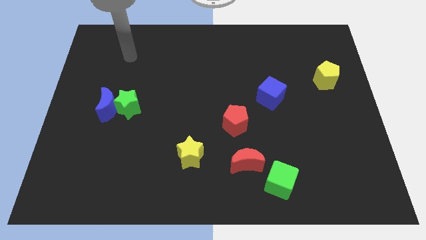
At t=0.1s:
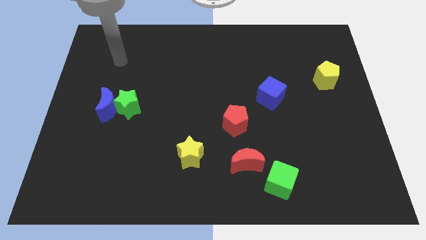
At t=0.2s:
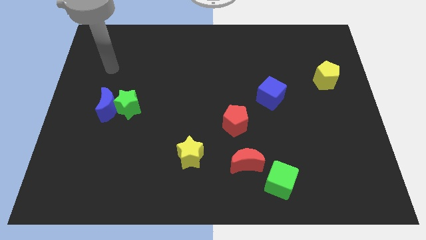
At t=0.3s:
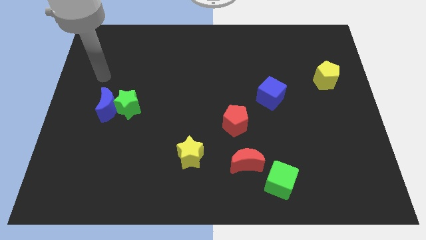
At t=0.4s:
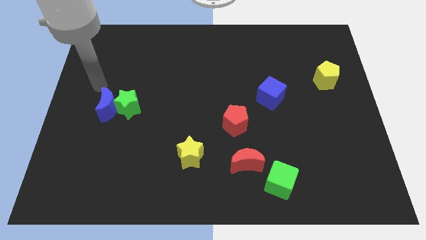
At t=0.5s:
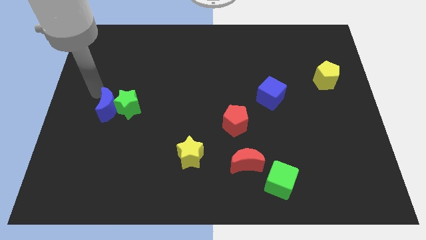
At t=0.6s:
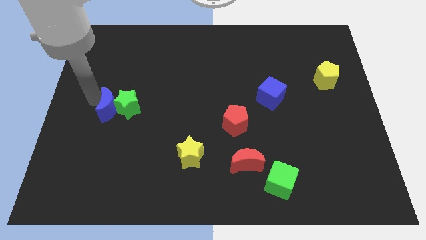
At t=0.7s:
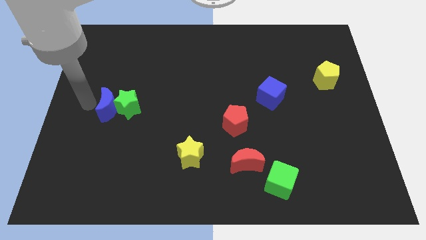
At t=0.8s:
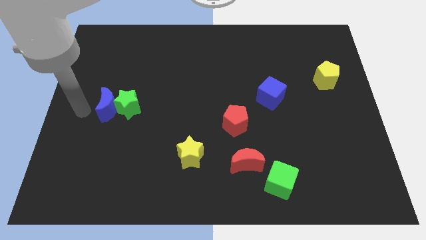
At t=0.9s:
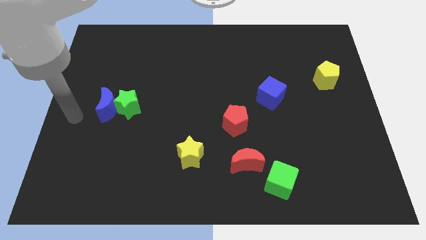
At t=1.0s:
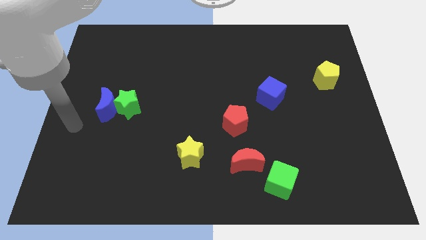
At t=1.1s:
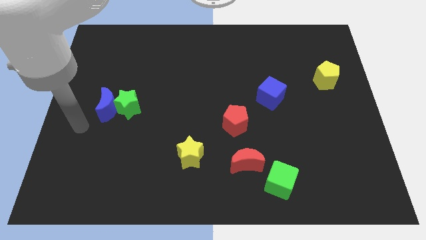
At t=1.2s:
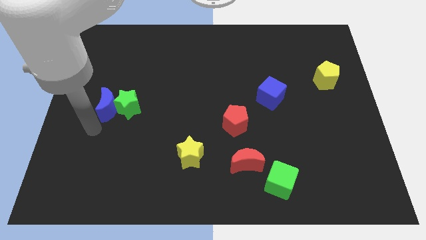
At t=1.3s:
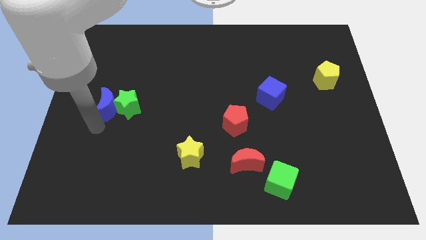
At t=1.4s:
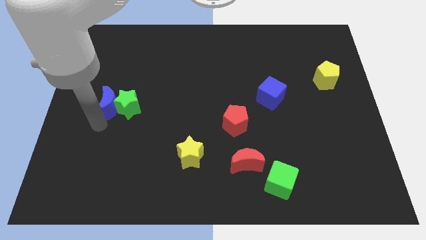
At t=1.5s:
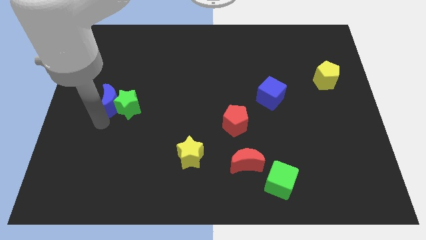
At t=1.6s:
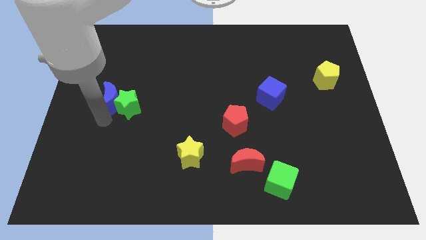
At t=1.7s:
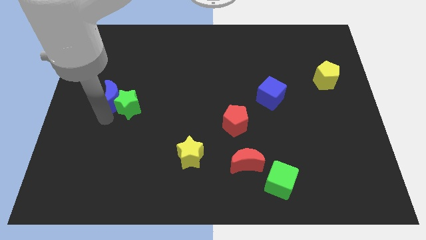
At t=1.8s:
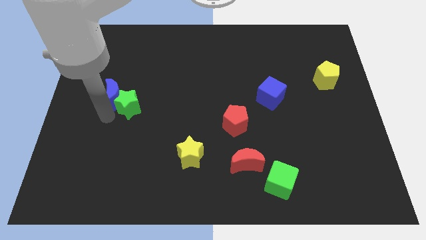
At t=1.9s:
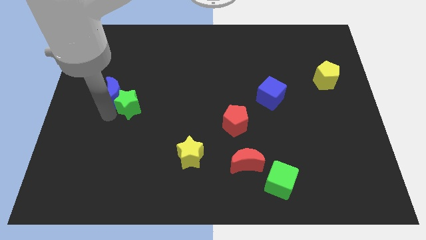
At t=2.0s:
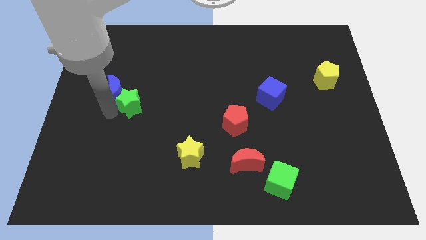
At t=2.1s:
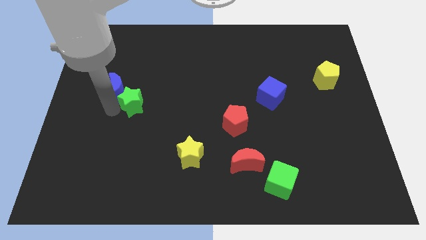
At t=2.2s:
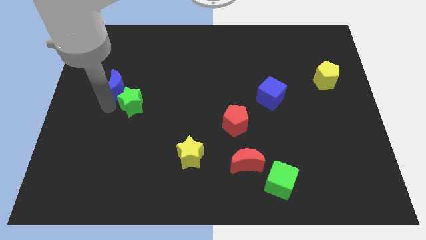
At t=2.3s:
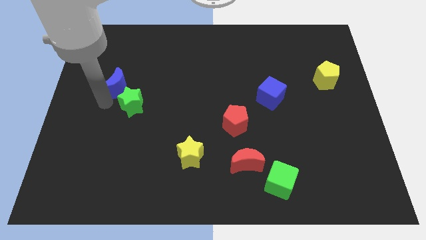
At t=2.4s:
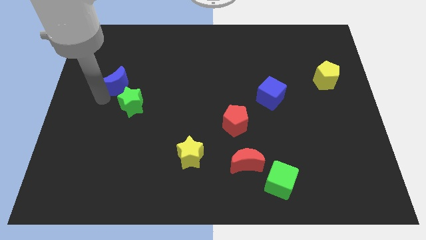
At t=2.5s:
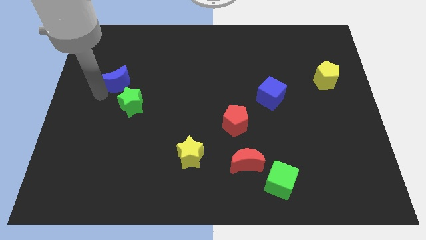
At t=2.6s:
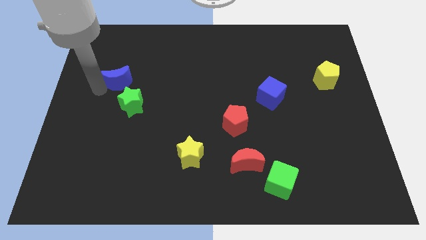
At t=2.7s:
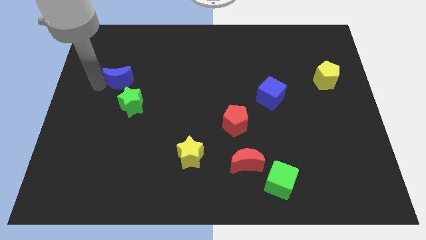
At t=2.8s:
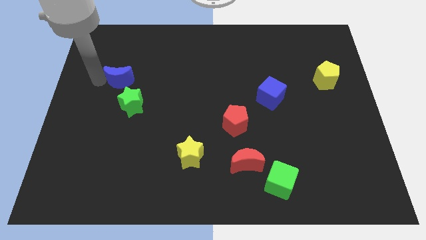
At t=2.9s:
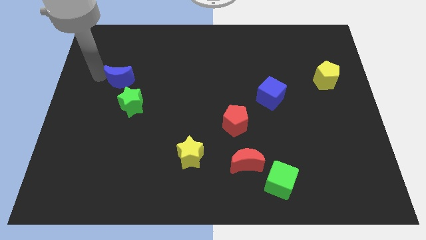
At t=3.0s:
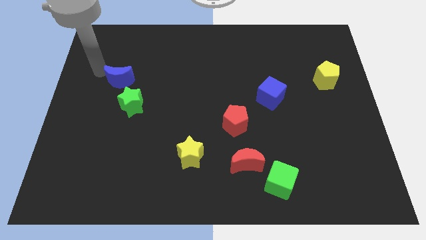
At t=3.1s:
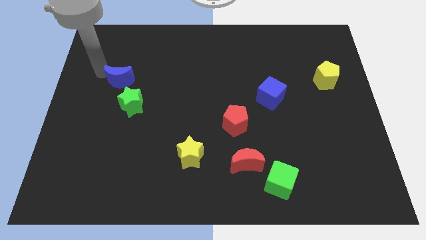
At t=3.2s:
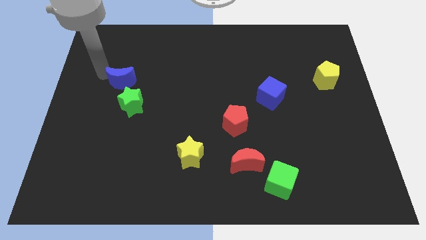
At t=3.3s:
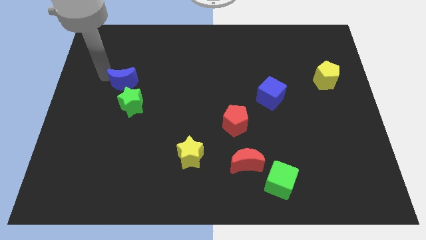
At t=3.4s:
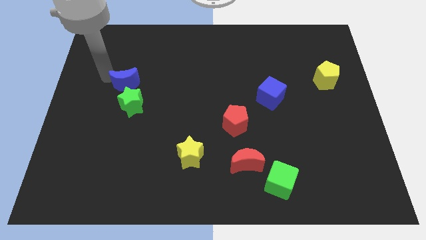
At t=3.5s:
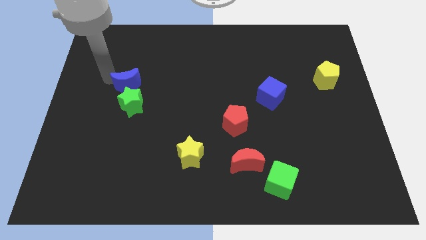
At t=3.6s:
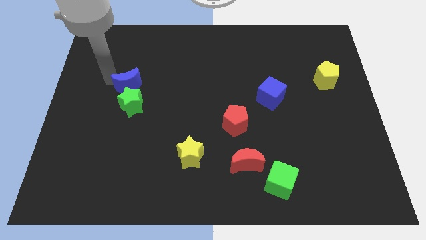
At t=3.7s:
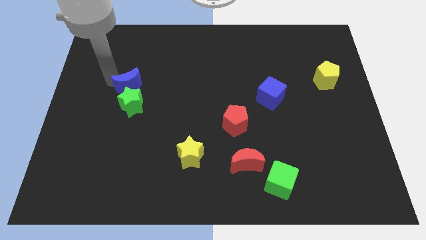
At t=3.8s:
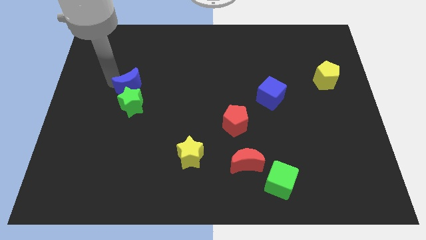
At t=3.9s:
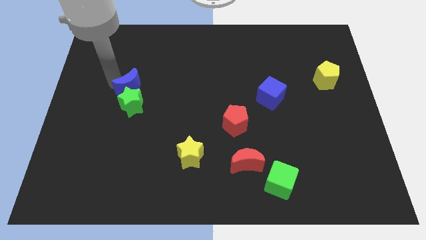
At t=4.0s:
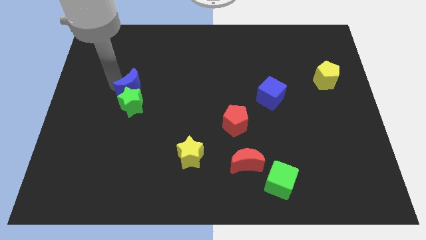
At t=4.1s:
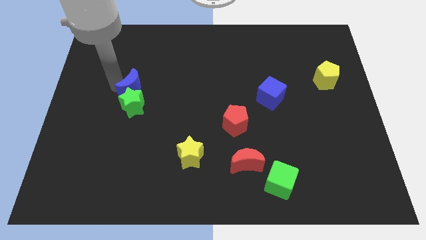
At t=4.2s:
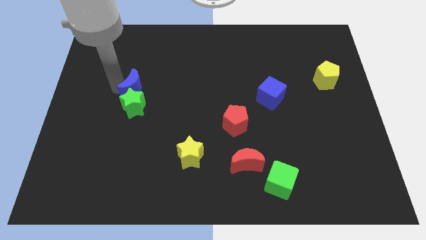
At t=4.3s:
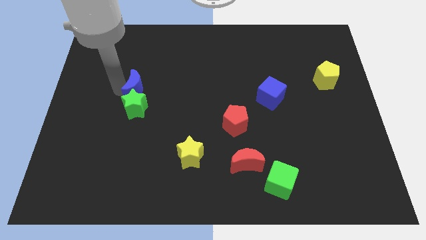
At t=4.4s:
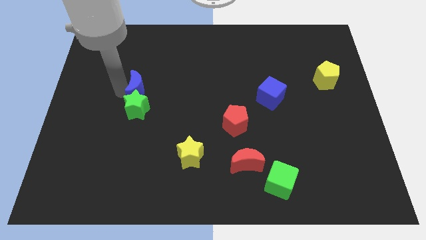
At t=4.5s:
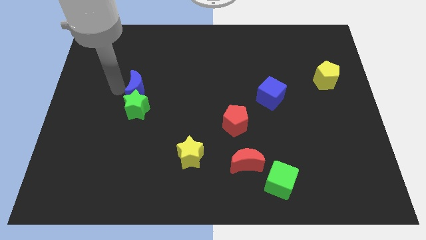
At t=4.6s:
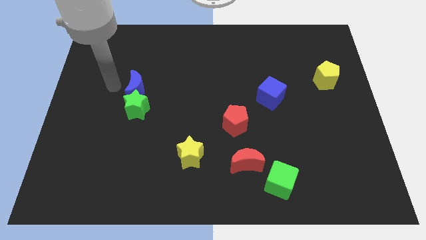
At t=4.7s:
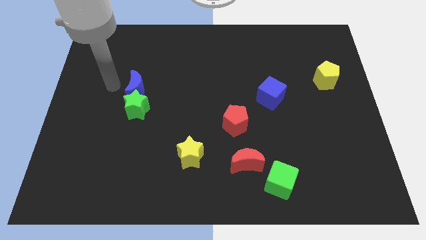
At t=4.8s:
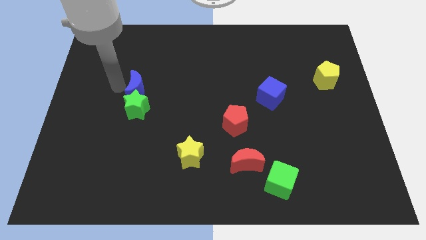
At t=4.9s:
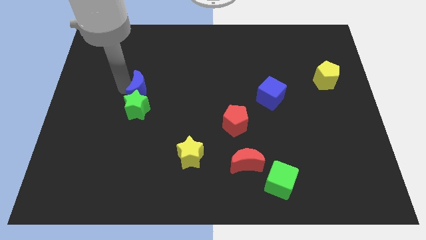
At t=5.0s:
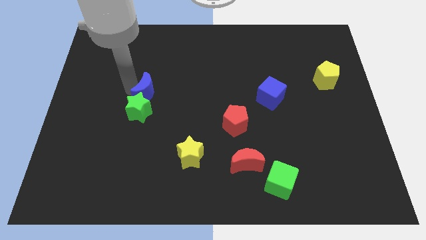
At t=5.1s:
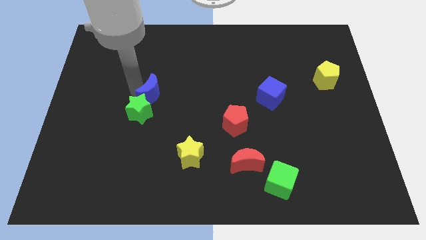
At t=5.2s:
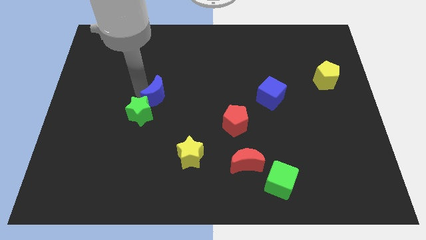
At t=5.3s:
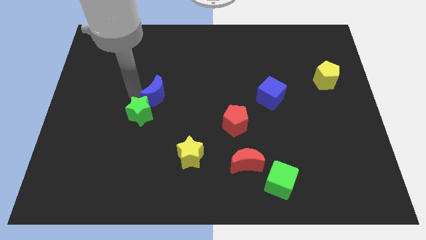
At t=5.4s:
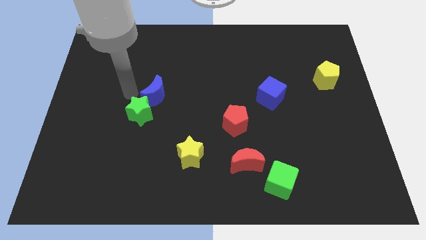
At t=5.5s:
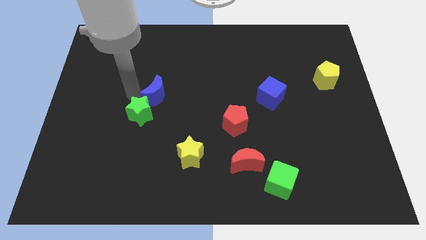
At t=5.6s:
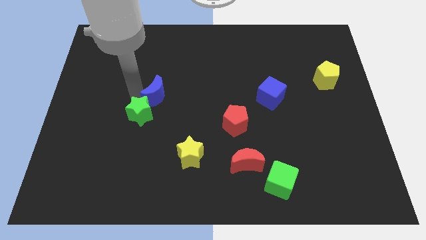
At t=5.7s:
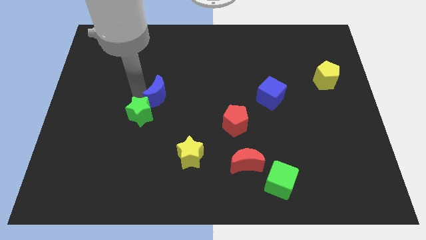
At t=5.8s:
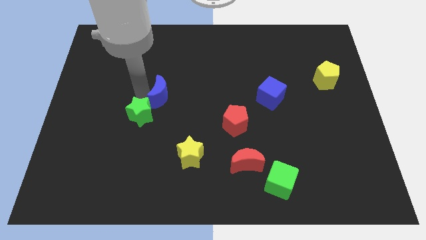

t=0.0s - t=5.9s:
move the blue moon to the middle of the board
